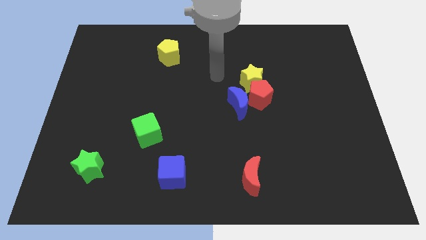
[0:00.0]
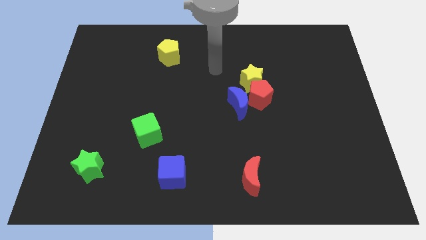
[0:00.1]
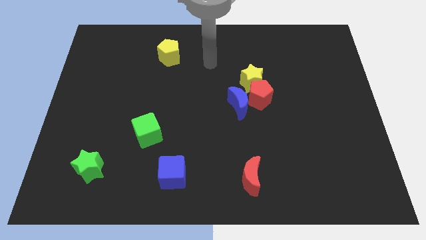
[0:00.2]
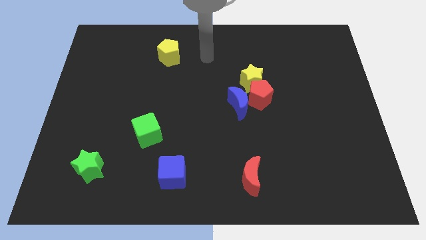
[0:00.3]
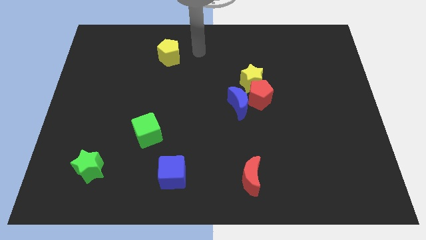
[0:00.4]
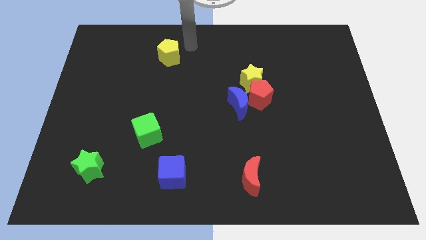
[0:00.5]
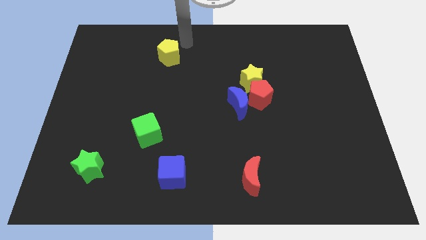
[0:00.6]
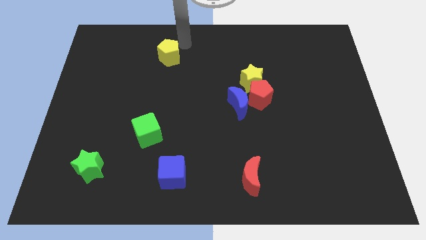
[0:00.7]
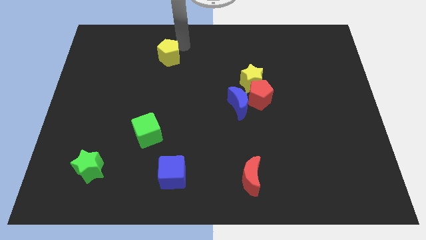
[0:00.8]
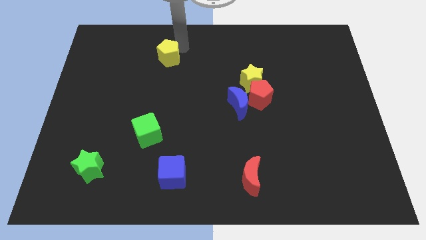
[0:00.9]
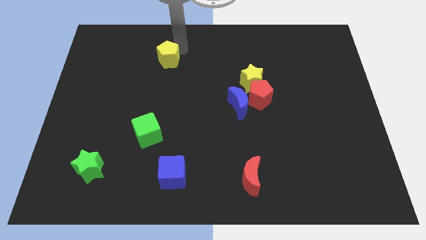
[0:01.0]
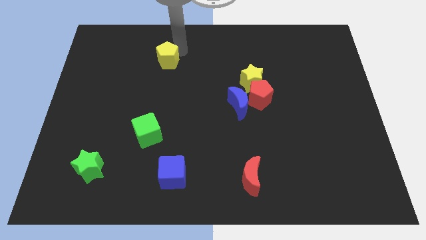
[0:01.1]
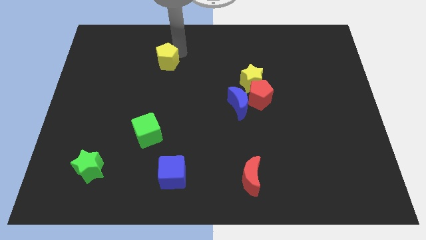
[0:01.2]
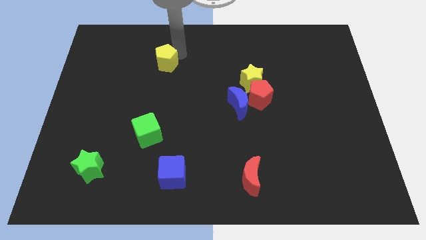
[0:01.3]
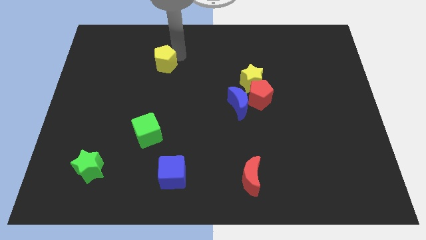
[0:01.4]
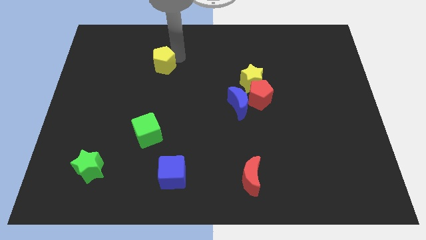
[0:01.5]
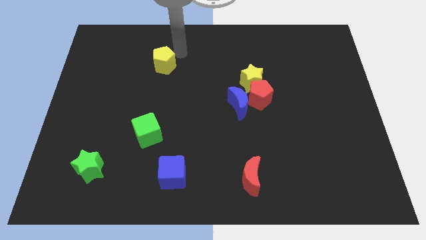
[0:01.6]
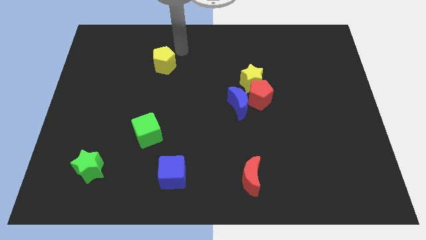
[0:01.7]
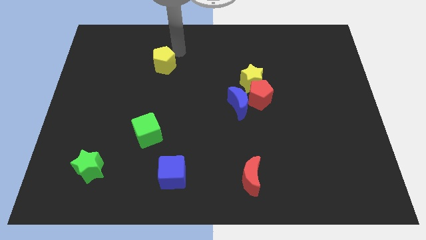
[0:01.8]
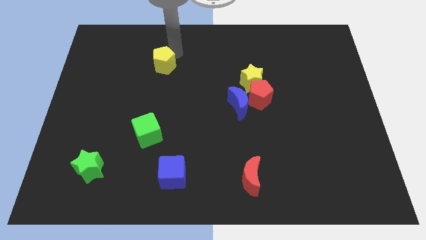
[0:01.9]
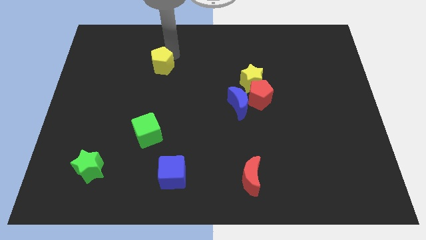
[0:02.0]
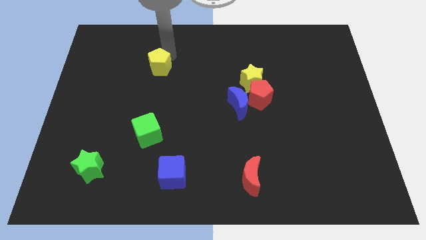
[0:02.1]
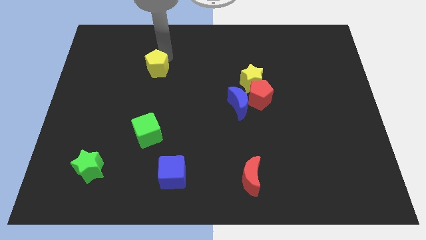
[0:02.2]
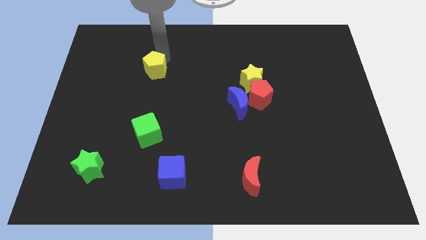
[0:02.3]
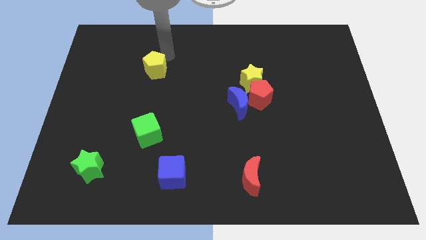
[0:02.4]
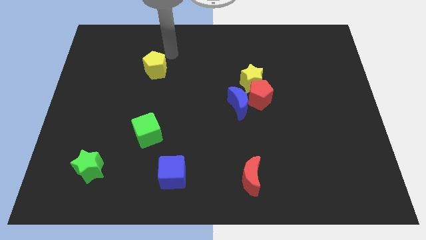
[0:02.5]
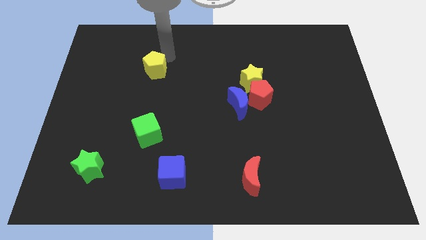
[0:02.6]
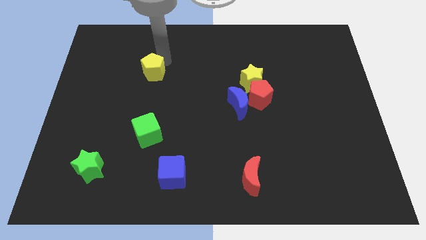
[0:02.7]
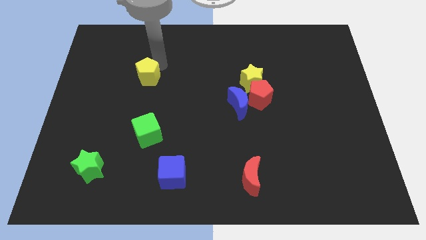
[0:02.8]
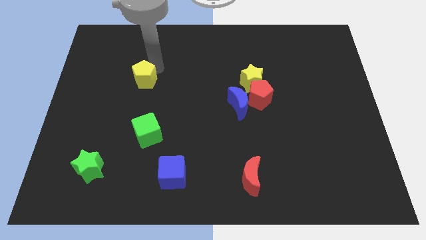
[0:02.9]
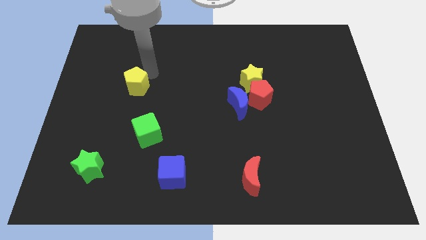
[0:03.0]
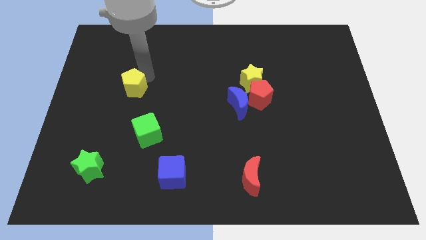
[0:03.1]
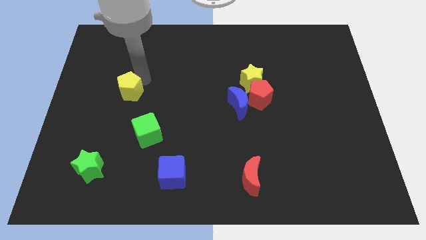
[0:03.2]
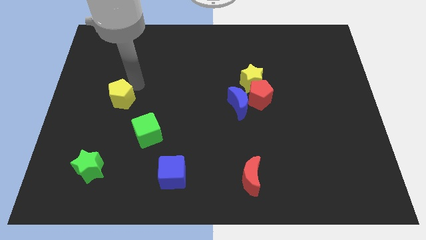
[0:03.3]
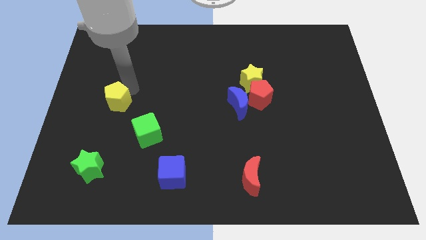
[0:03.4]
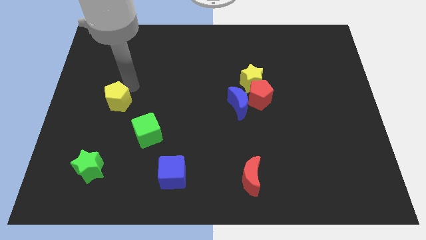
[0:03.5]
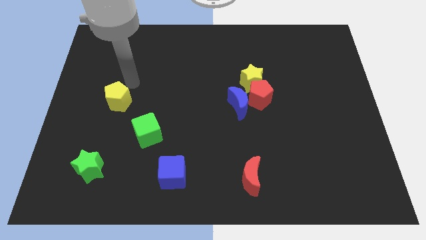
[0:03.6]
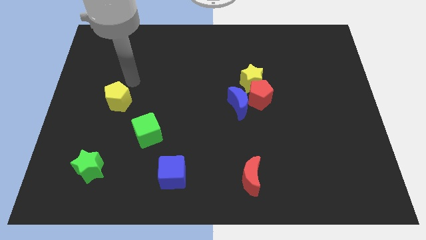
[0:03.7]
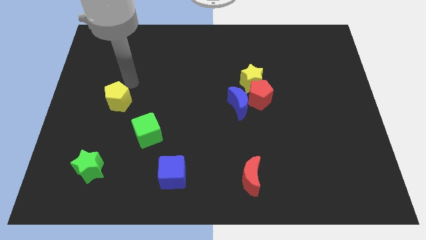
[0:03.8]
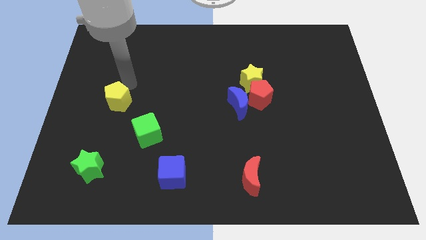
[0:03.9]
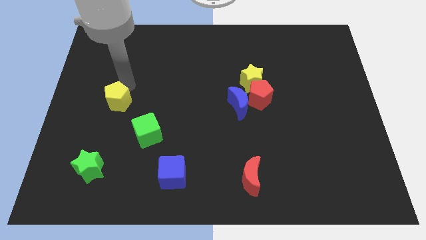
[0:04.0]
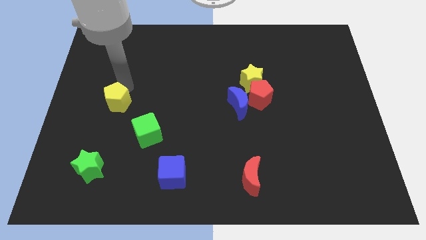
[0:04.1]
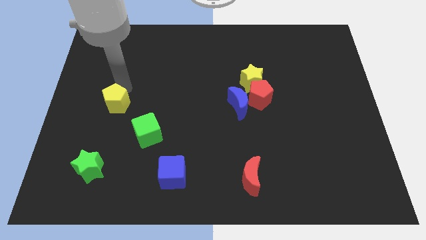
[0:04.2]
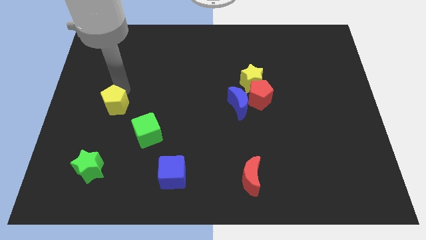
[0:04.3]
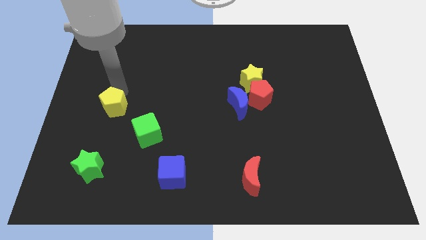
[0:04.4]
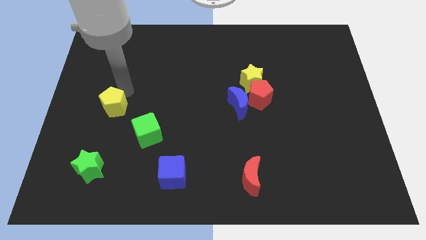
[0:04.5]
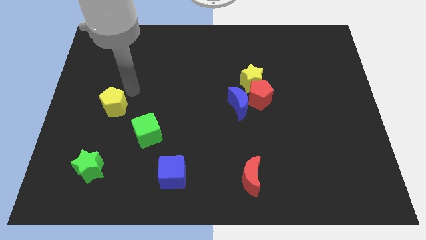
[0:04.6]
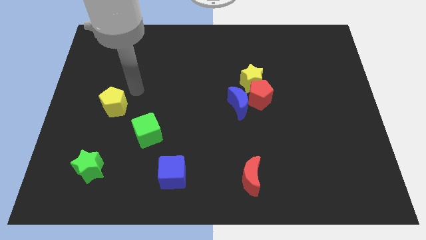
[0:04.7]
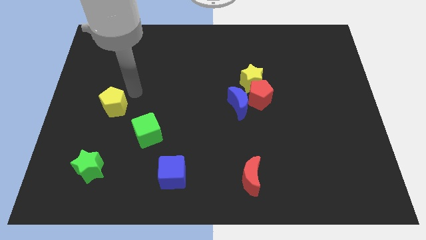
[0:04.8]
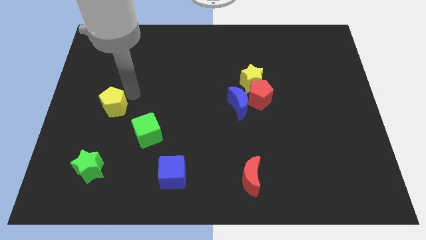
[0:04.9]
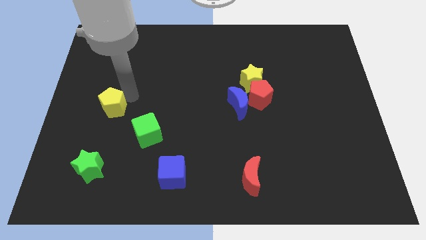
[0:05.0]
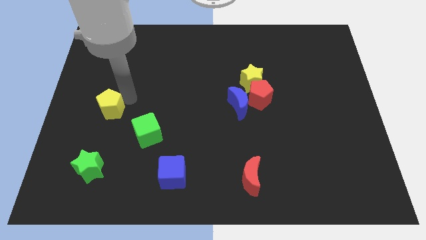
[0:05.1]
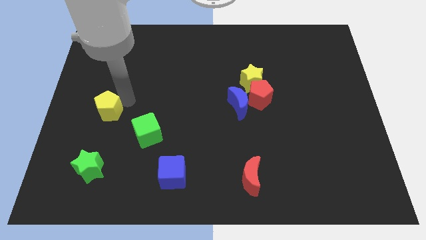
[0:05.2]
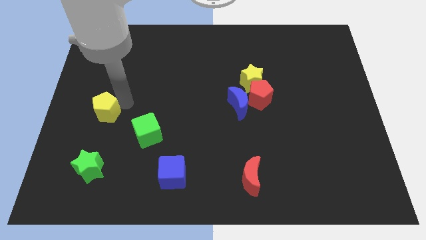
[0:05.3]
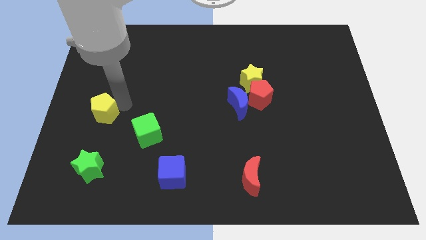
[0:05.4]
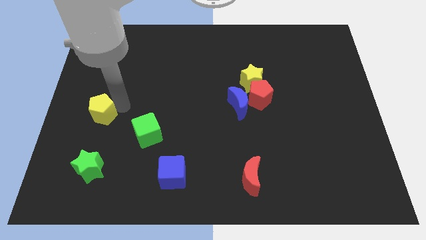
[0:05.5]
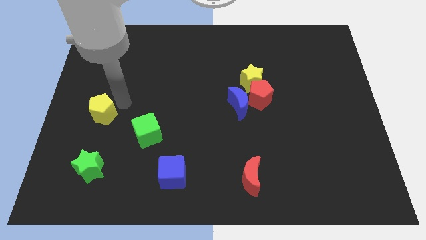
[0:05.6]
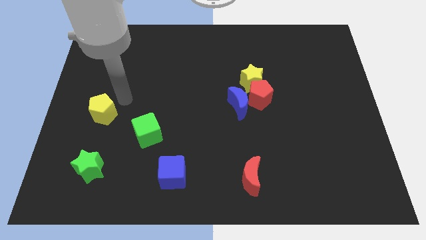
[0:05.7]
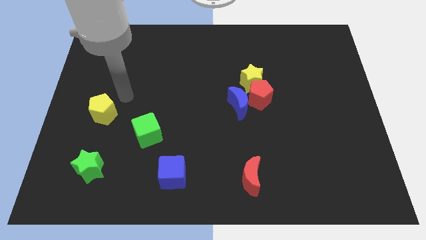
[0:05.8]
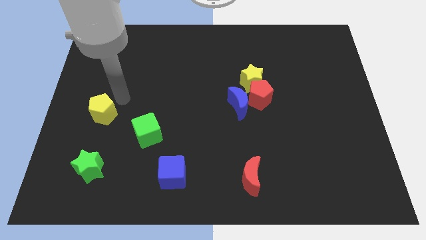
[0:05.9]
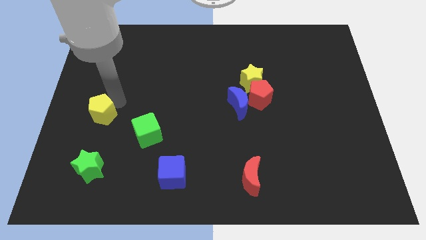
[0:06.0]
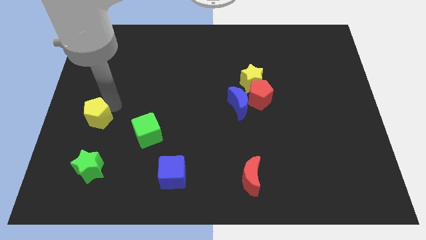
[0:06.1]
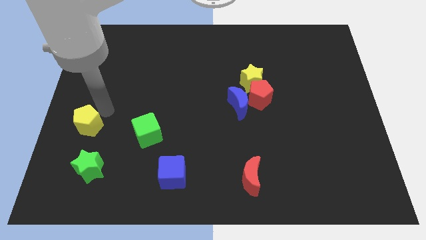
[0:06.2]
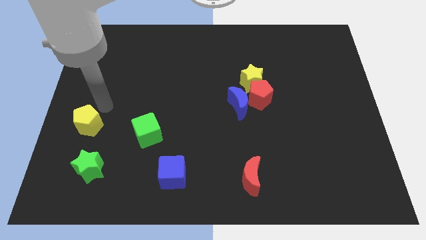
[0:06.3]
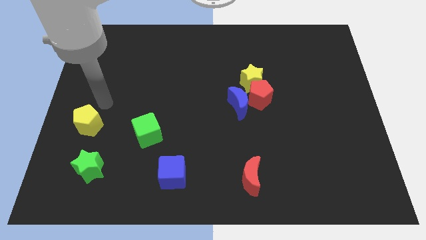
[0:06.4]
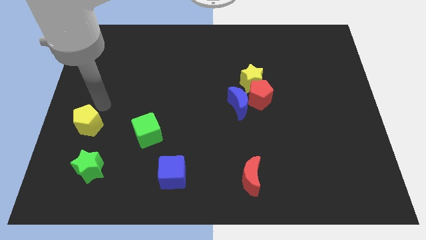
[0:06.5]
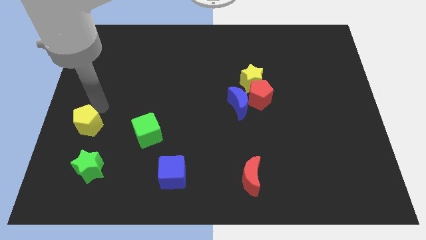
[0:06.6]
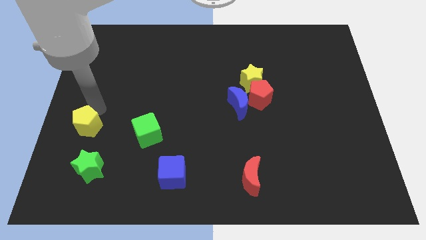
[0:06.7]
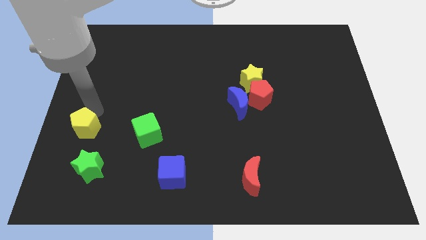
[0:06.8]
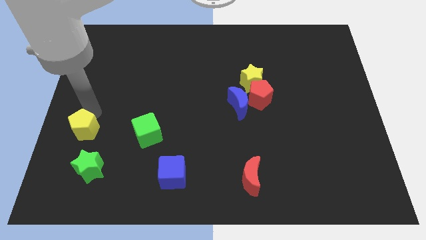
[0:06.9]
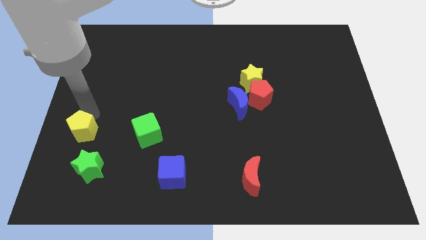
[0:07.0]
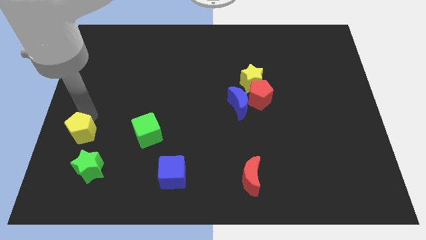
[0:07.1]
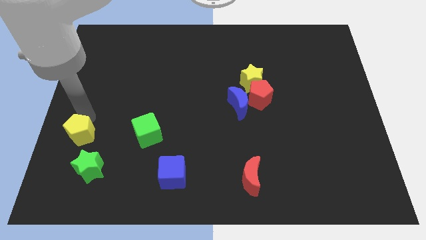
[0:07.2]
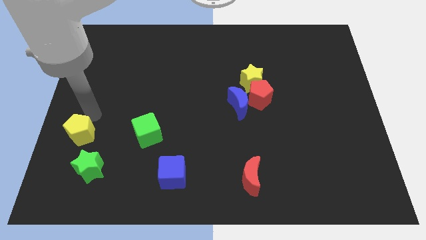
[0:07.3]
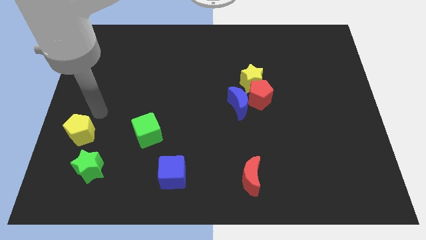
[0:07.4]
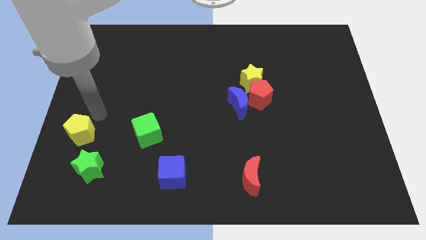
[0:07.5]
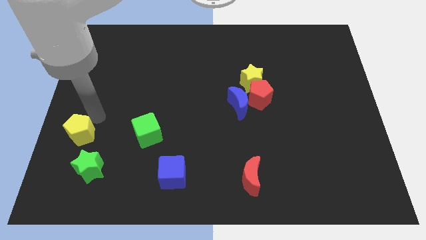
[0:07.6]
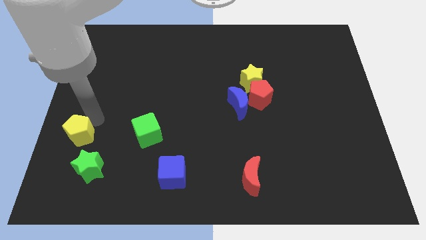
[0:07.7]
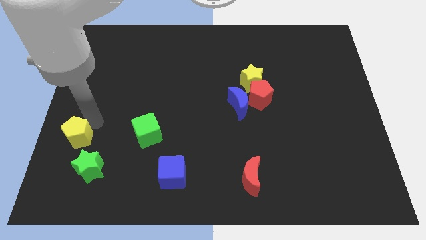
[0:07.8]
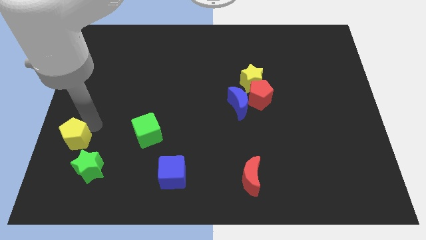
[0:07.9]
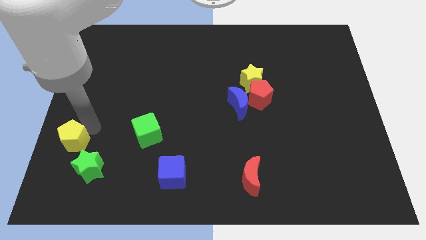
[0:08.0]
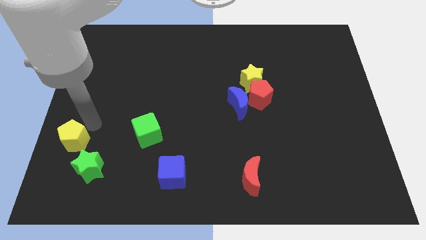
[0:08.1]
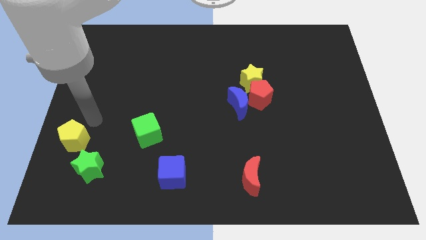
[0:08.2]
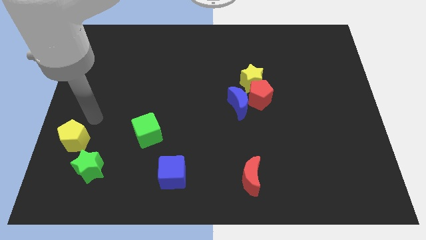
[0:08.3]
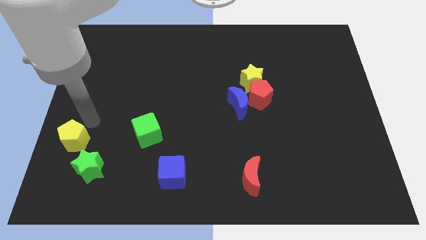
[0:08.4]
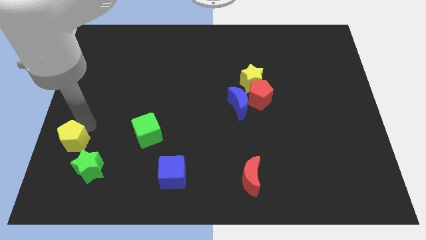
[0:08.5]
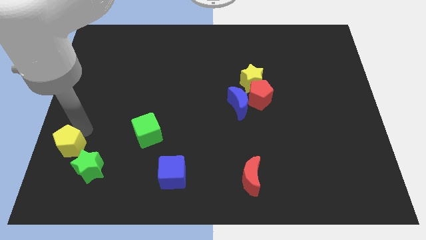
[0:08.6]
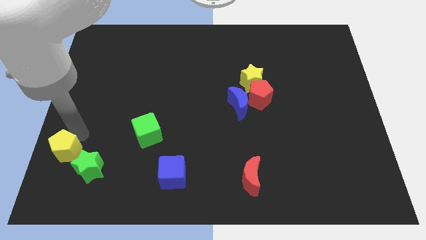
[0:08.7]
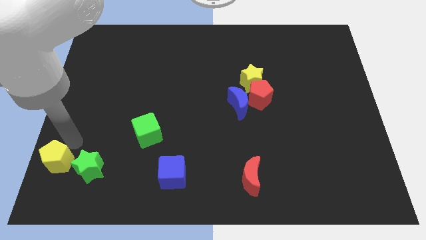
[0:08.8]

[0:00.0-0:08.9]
push the yellow pentagon to the bottom left
